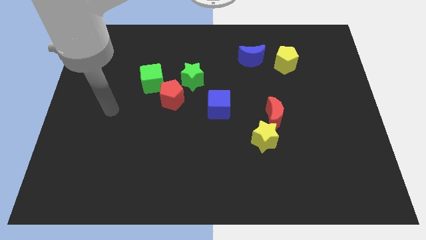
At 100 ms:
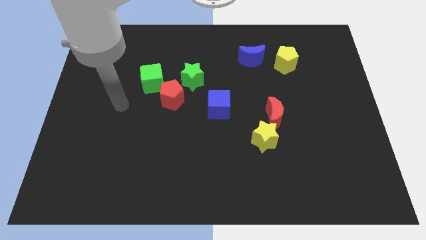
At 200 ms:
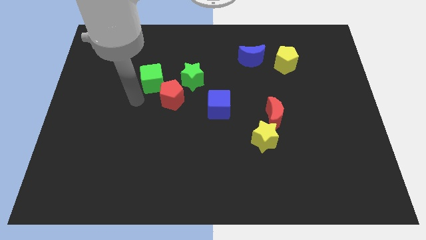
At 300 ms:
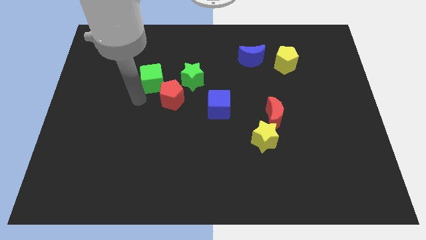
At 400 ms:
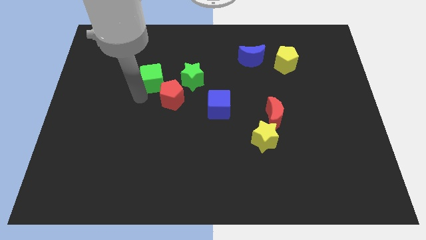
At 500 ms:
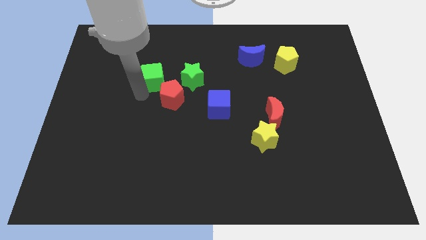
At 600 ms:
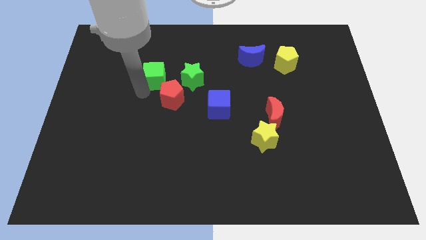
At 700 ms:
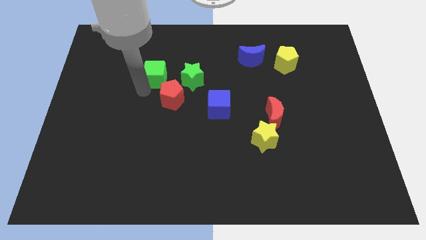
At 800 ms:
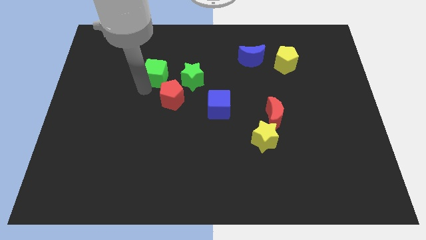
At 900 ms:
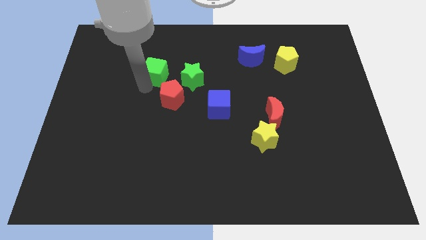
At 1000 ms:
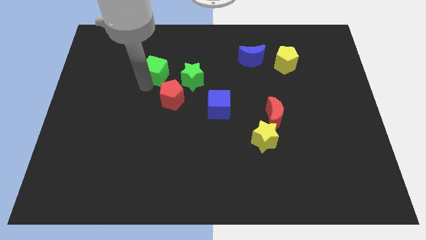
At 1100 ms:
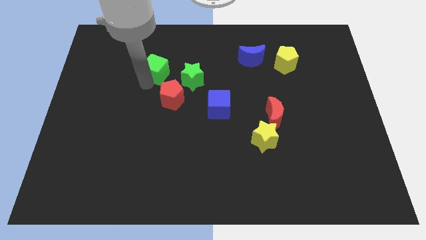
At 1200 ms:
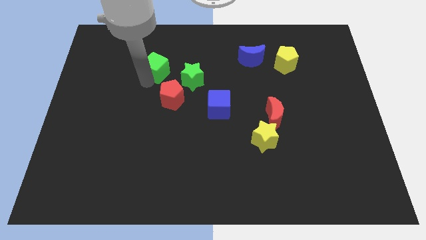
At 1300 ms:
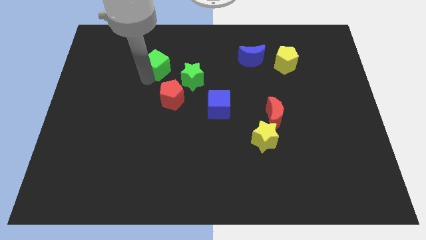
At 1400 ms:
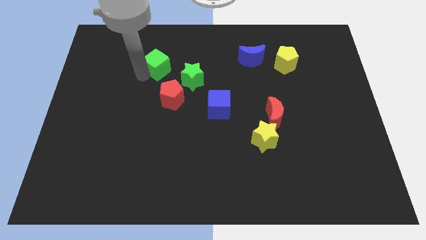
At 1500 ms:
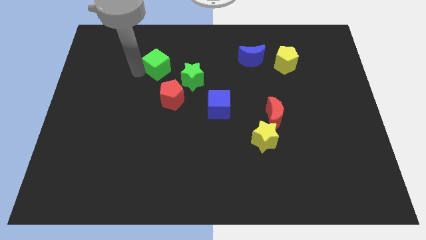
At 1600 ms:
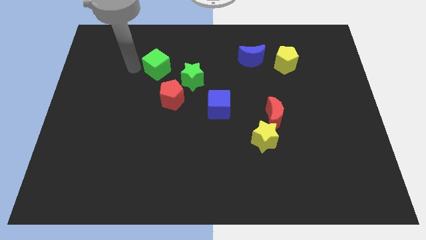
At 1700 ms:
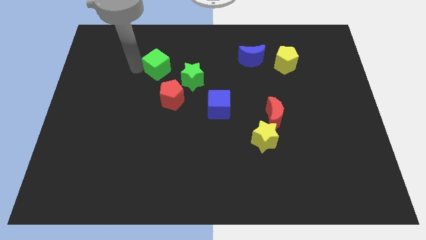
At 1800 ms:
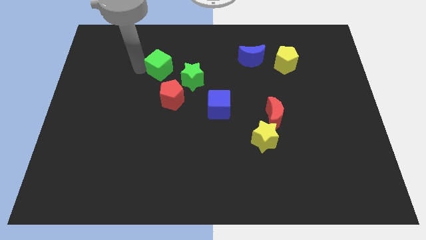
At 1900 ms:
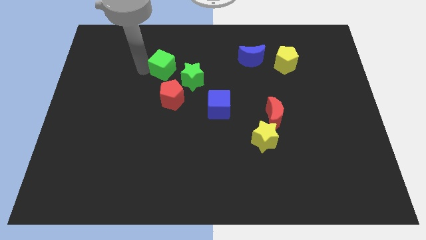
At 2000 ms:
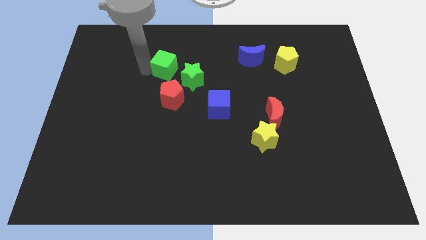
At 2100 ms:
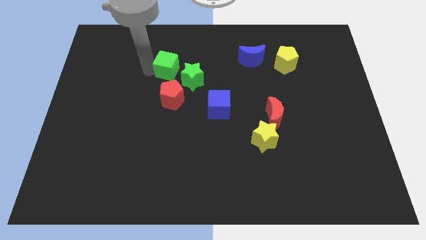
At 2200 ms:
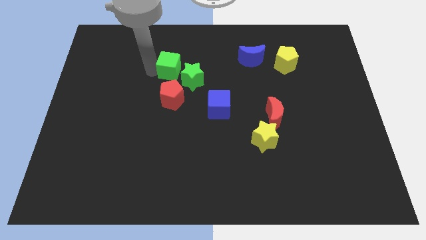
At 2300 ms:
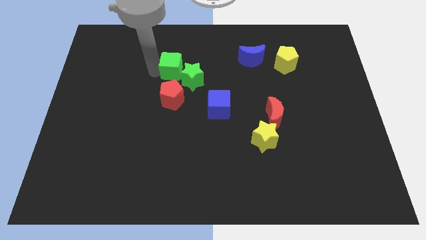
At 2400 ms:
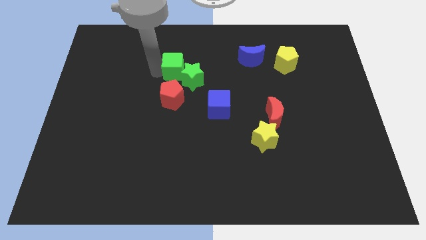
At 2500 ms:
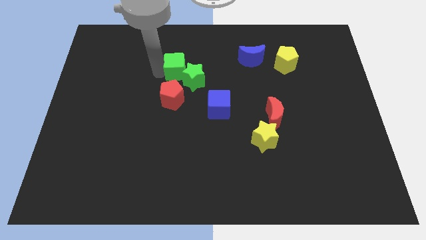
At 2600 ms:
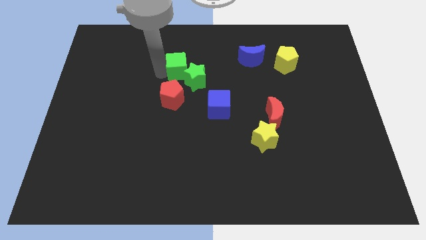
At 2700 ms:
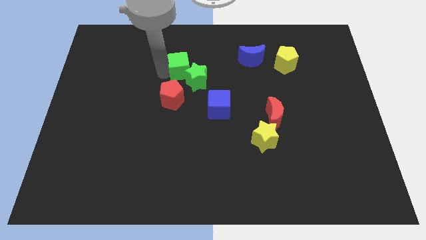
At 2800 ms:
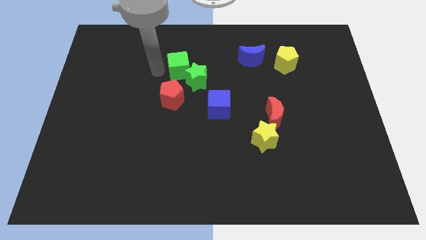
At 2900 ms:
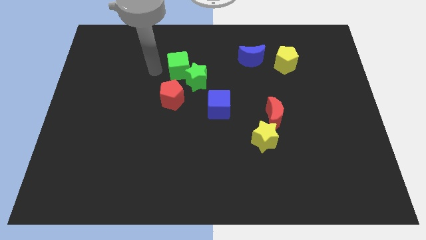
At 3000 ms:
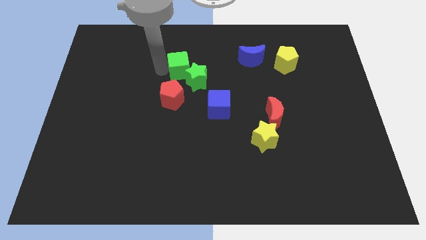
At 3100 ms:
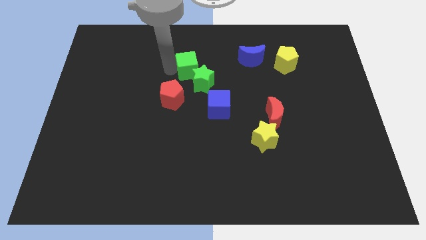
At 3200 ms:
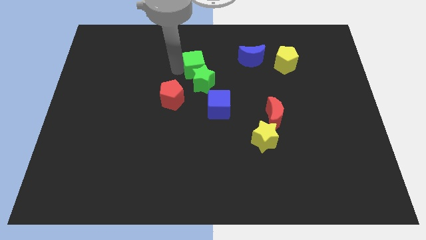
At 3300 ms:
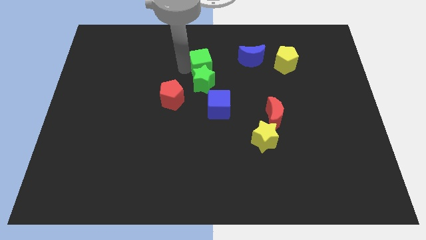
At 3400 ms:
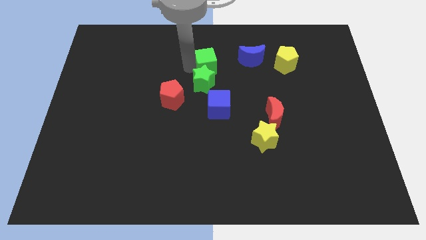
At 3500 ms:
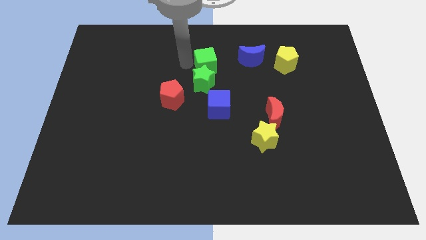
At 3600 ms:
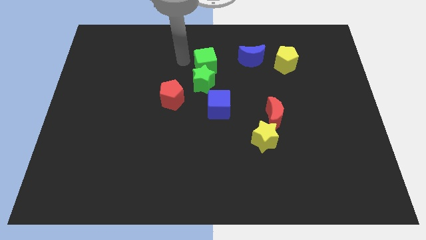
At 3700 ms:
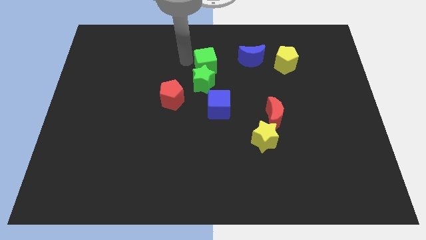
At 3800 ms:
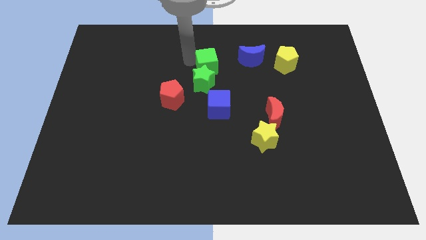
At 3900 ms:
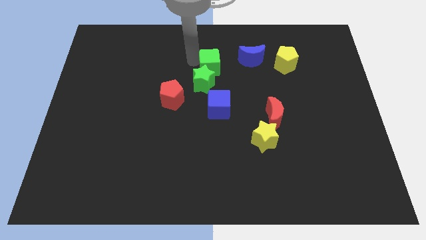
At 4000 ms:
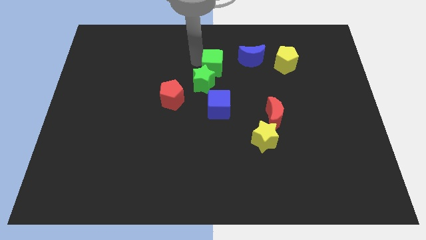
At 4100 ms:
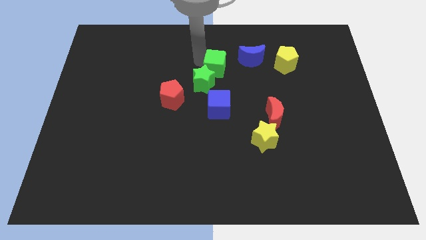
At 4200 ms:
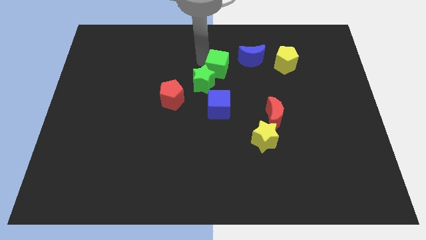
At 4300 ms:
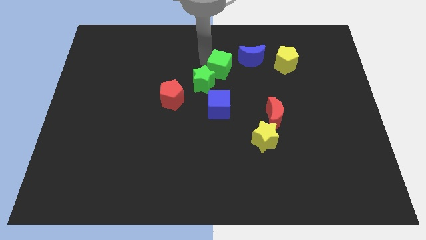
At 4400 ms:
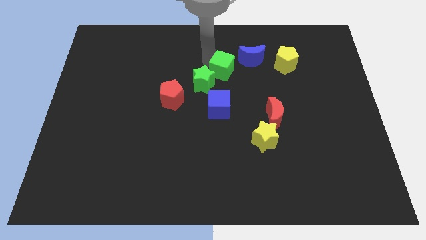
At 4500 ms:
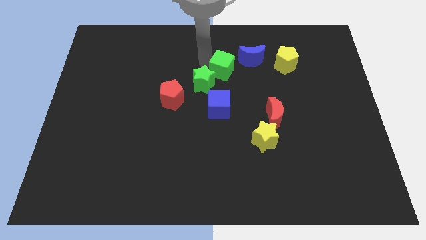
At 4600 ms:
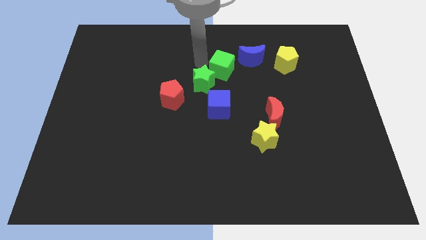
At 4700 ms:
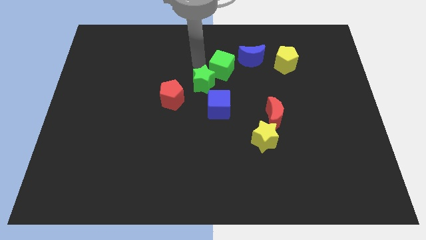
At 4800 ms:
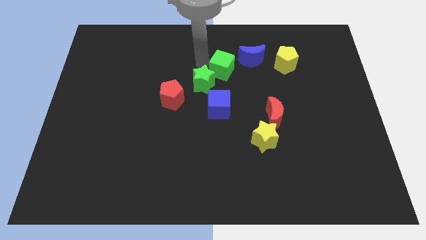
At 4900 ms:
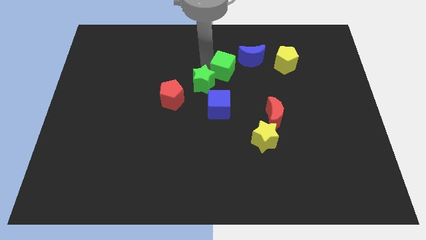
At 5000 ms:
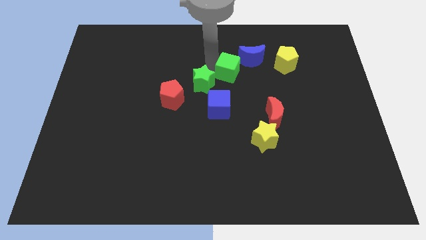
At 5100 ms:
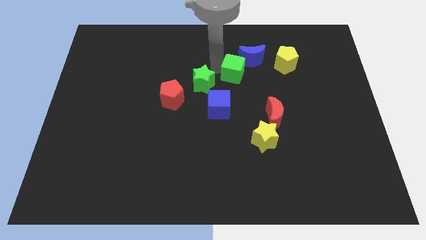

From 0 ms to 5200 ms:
move the green cube right

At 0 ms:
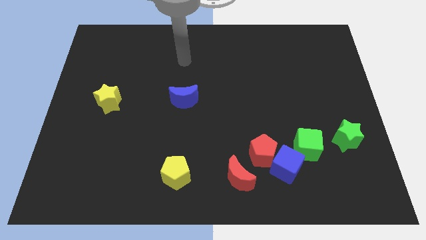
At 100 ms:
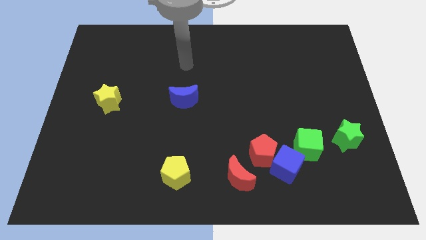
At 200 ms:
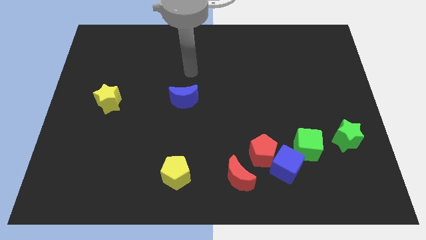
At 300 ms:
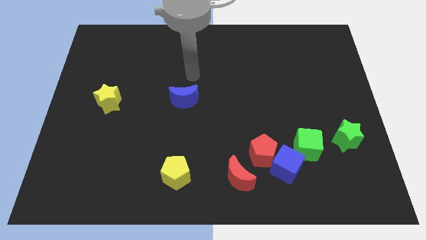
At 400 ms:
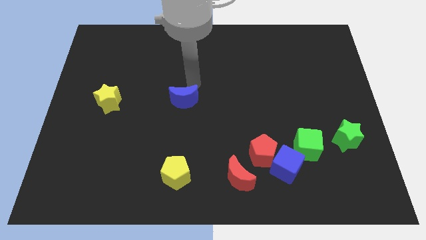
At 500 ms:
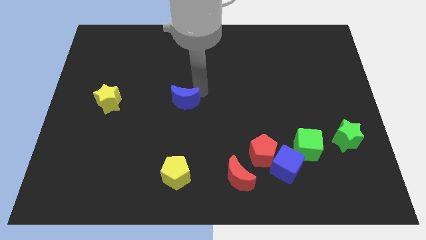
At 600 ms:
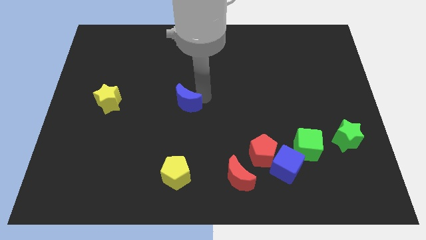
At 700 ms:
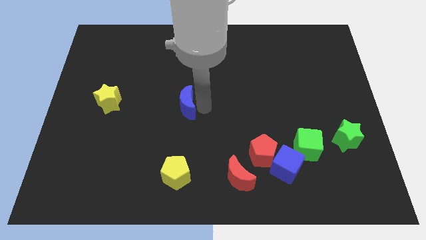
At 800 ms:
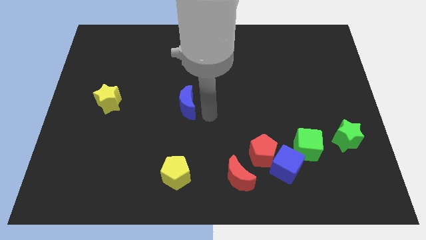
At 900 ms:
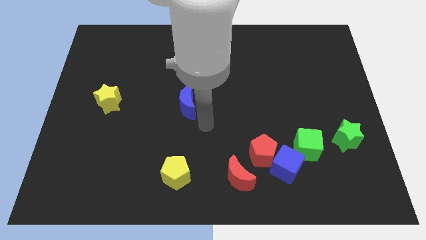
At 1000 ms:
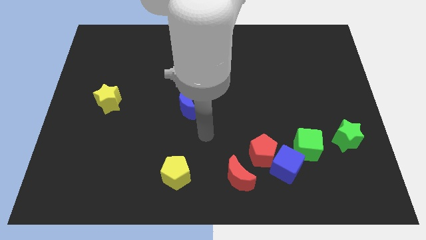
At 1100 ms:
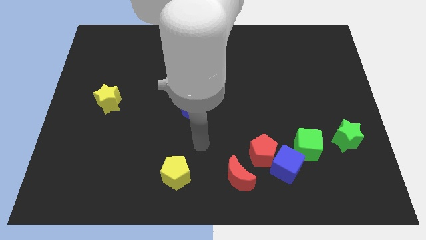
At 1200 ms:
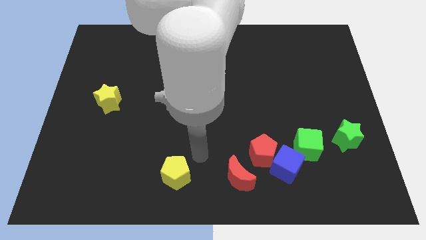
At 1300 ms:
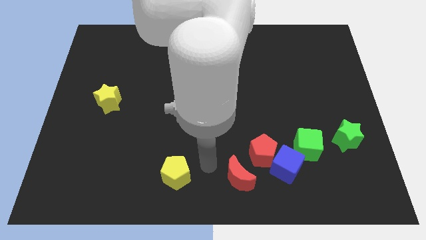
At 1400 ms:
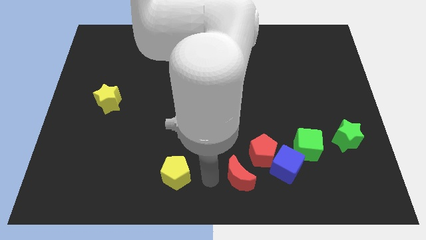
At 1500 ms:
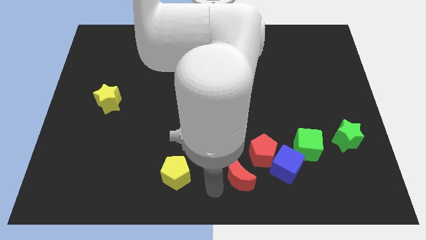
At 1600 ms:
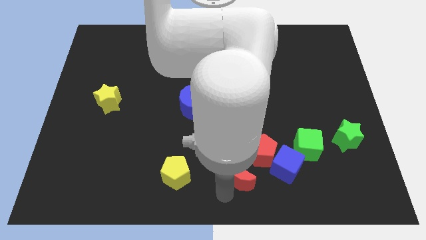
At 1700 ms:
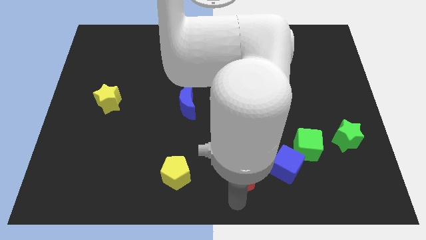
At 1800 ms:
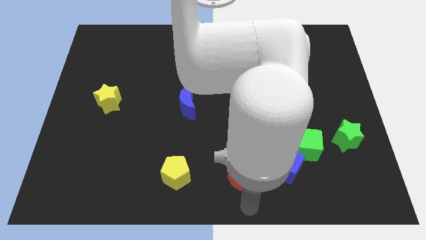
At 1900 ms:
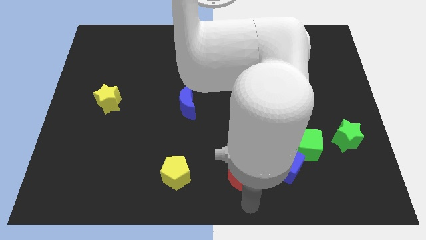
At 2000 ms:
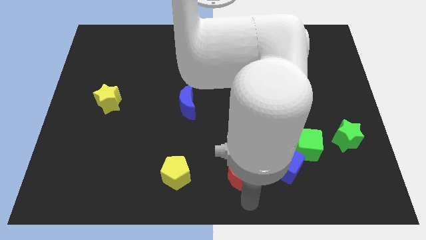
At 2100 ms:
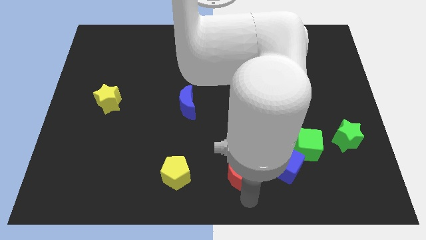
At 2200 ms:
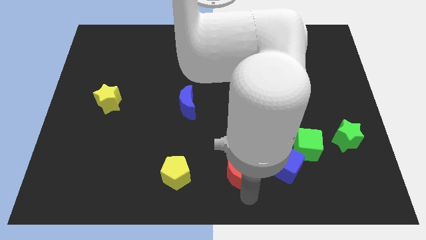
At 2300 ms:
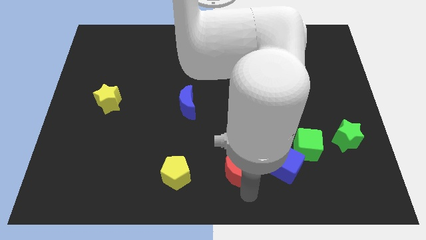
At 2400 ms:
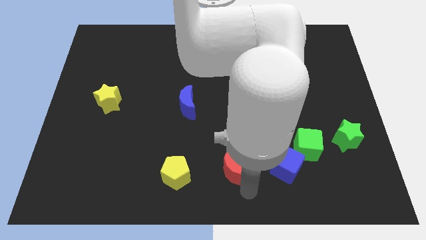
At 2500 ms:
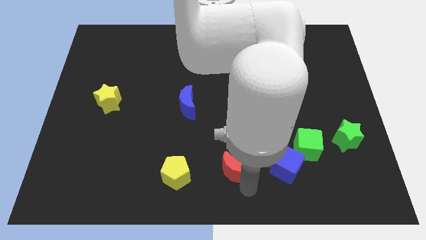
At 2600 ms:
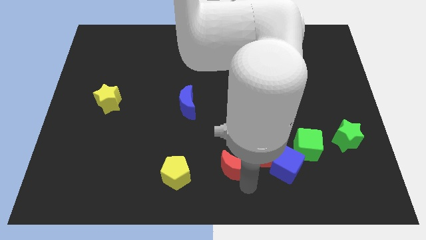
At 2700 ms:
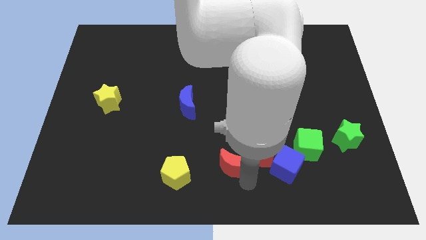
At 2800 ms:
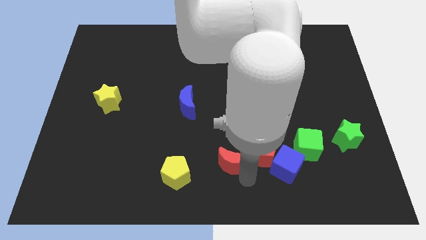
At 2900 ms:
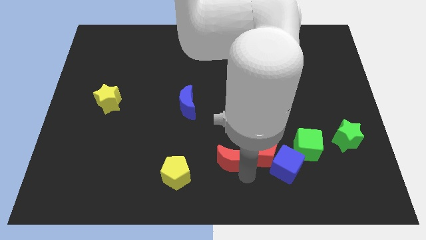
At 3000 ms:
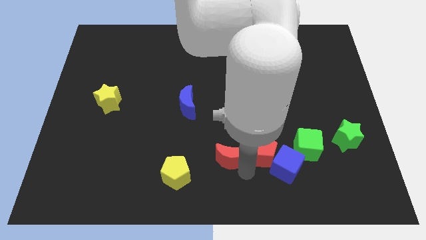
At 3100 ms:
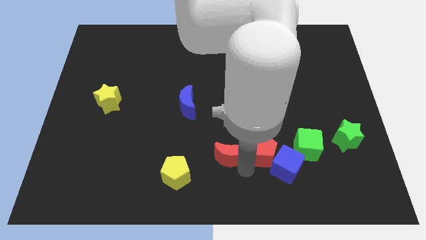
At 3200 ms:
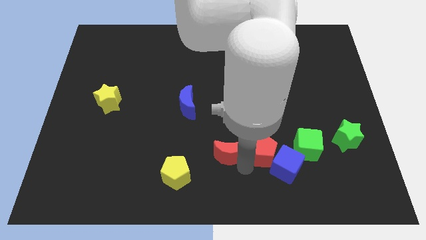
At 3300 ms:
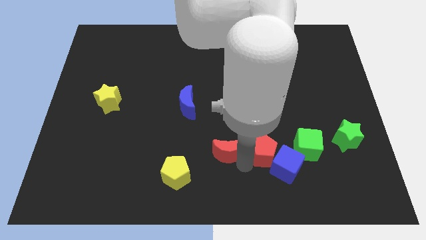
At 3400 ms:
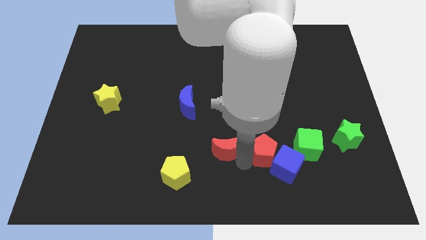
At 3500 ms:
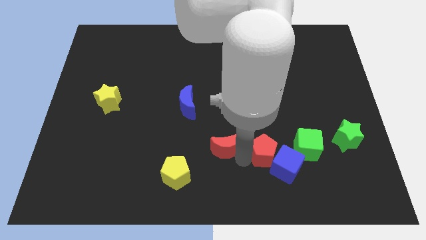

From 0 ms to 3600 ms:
push the red moon a bit upwards
